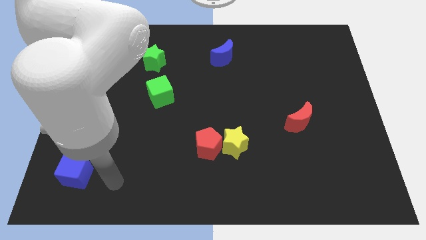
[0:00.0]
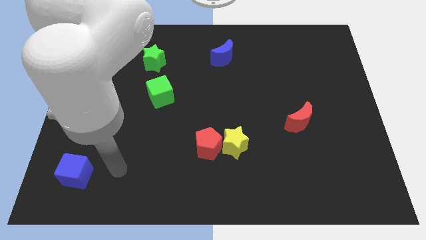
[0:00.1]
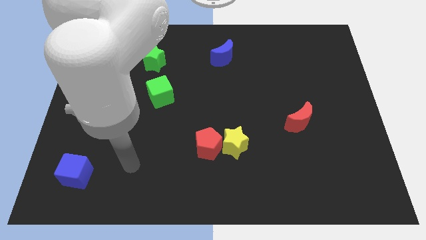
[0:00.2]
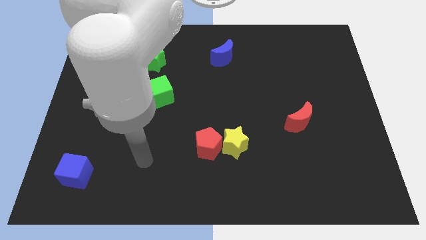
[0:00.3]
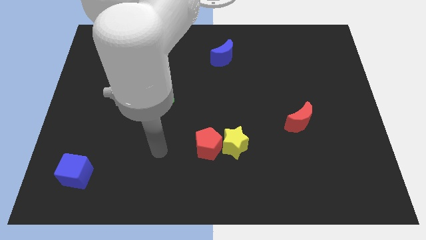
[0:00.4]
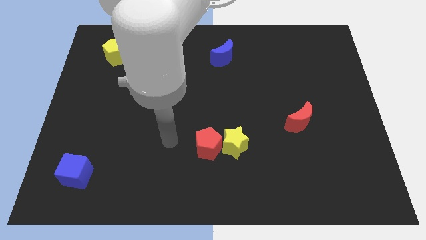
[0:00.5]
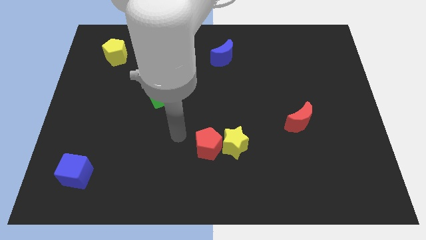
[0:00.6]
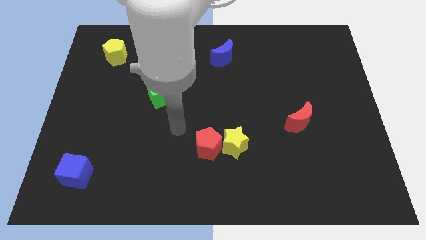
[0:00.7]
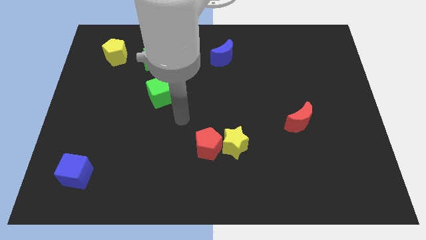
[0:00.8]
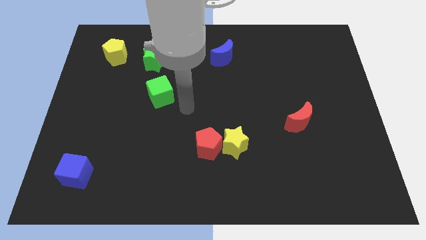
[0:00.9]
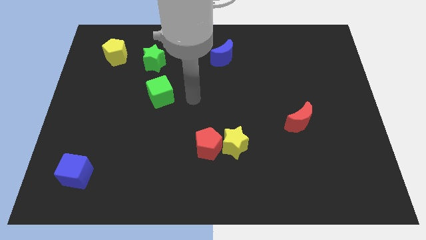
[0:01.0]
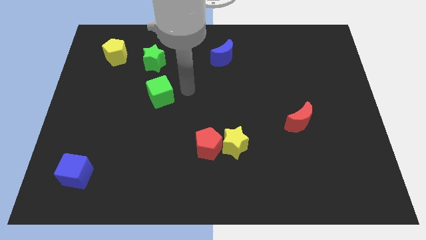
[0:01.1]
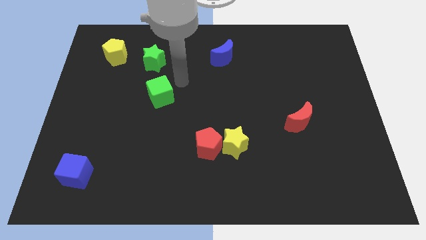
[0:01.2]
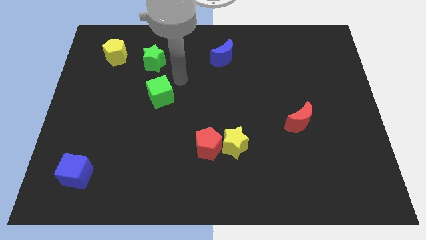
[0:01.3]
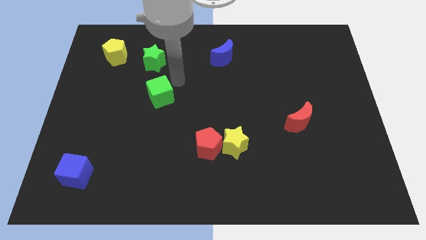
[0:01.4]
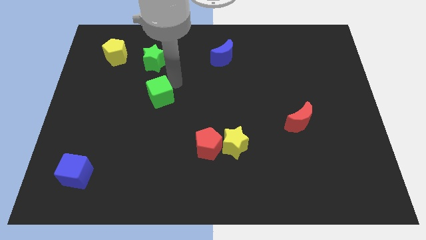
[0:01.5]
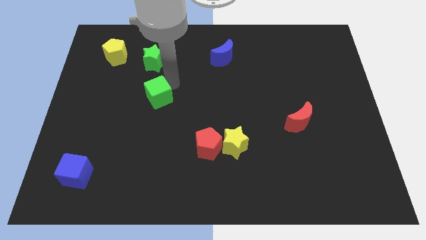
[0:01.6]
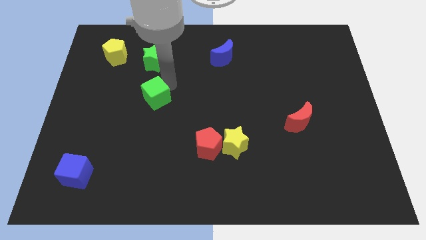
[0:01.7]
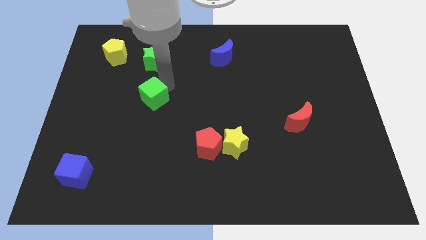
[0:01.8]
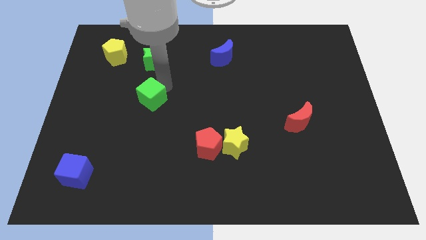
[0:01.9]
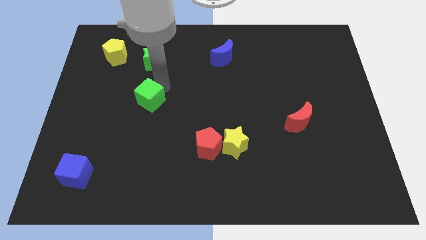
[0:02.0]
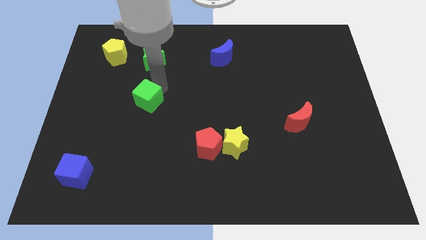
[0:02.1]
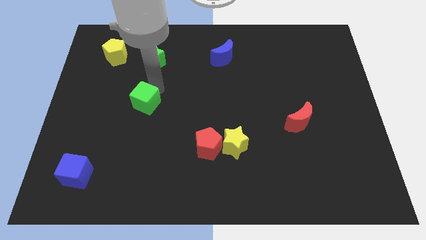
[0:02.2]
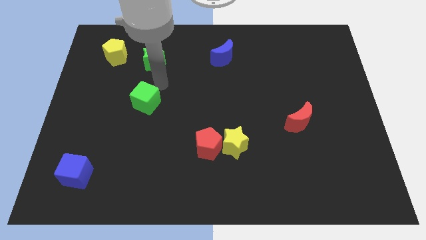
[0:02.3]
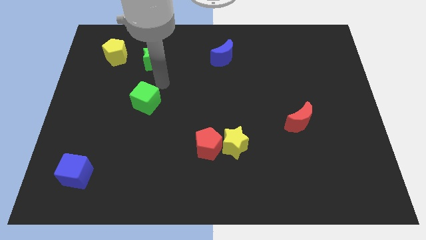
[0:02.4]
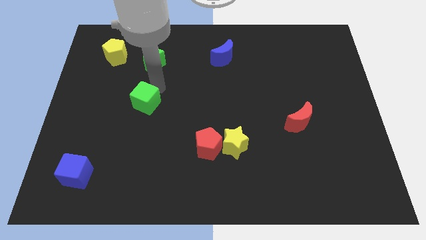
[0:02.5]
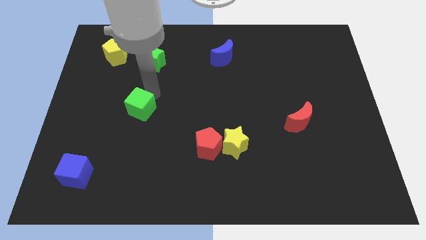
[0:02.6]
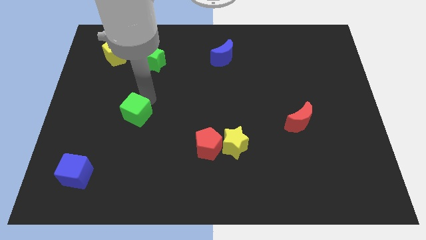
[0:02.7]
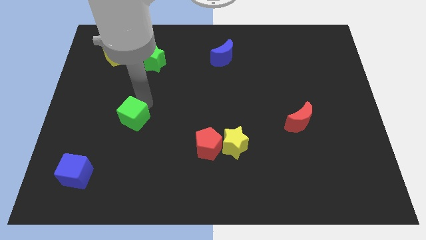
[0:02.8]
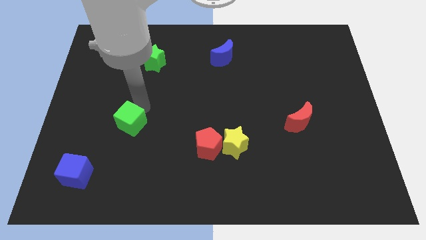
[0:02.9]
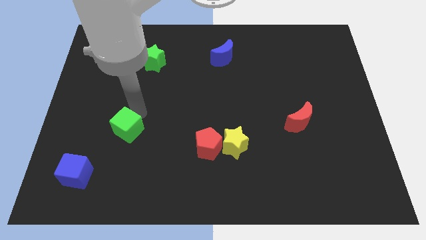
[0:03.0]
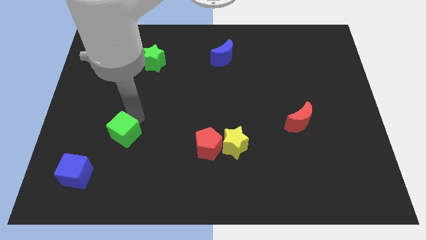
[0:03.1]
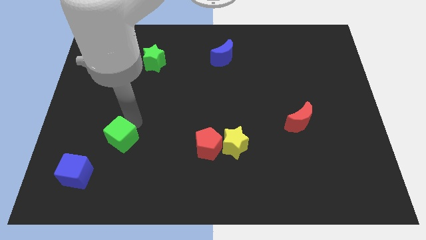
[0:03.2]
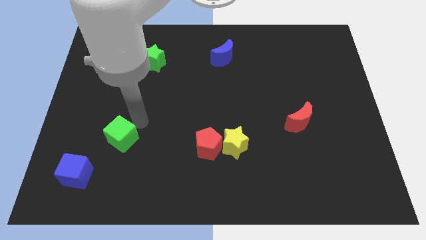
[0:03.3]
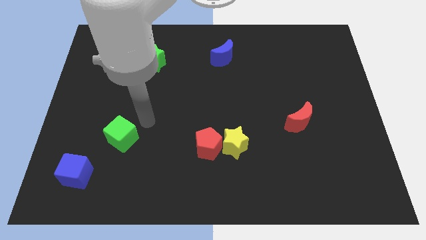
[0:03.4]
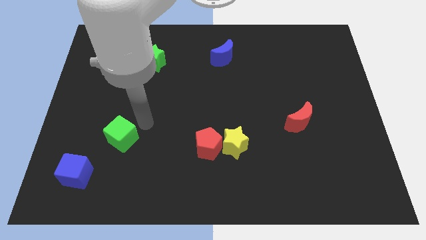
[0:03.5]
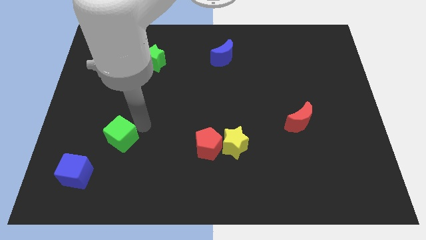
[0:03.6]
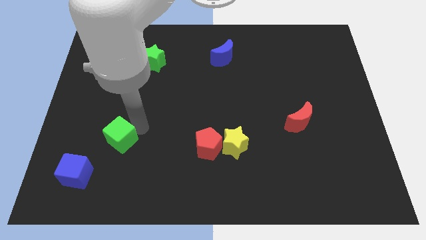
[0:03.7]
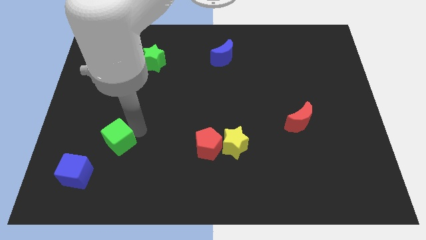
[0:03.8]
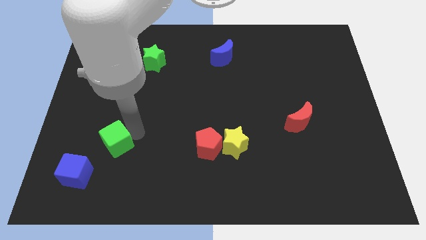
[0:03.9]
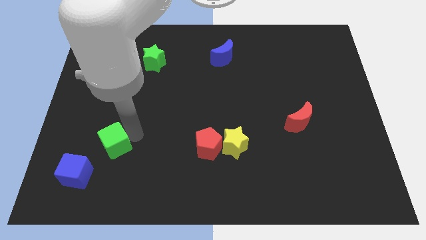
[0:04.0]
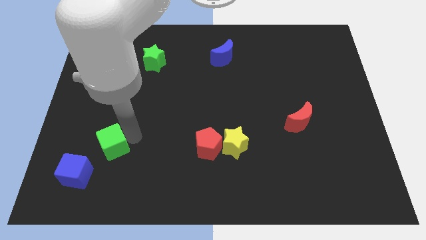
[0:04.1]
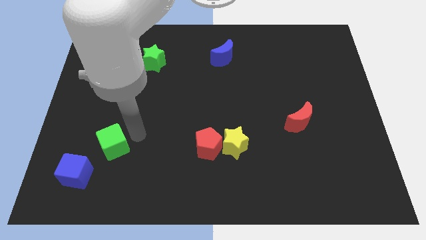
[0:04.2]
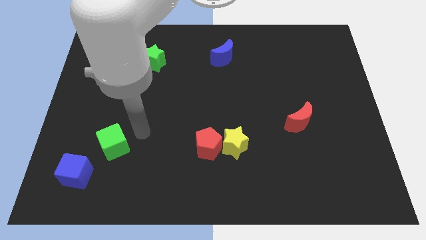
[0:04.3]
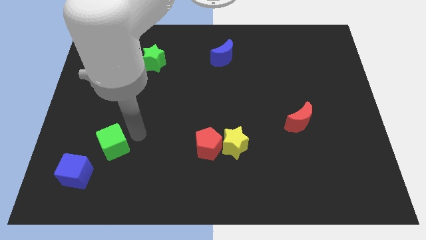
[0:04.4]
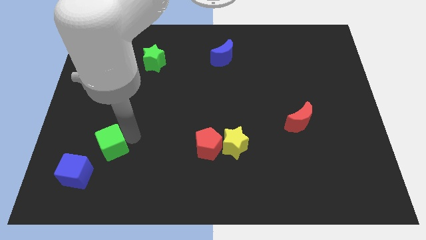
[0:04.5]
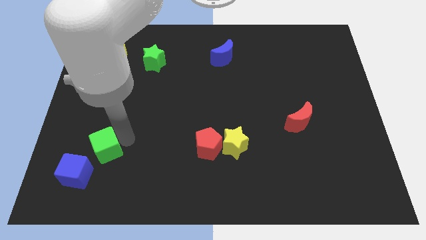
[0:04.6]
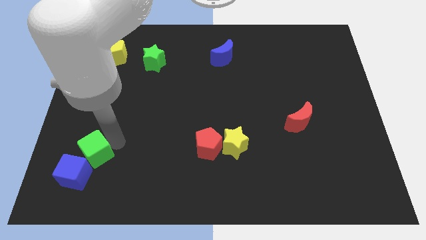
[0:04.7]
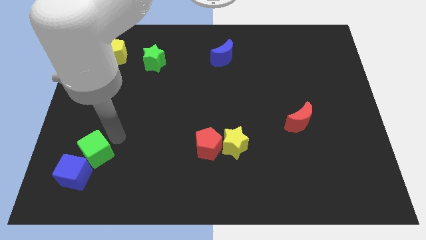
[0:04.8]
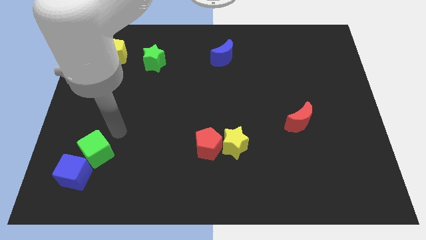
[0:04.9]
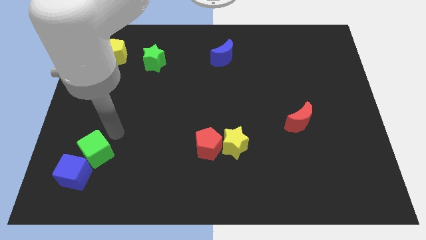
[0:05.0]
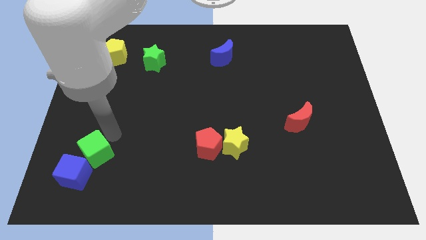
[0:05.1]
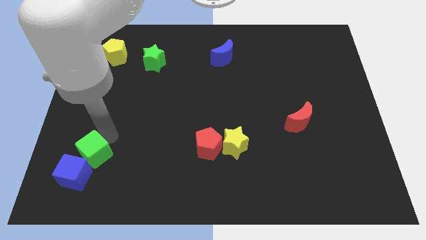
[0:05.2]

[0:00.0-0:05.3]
push the green cube next to the blue cube

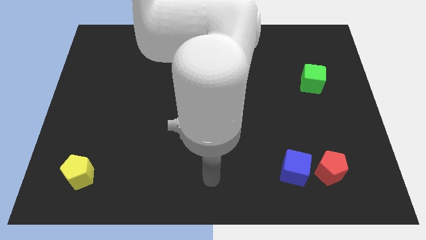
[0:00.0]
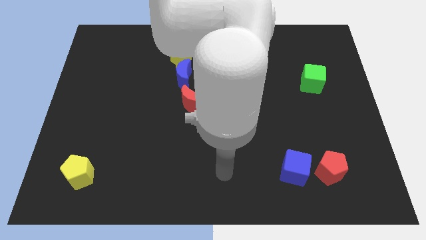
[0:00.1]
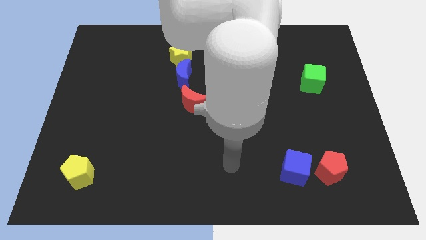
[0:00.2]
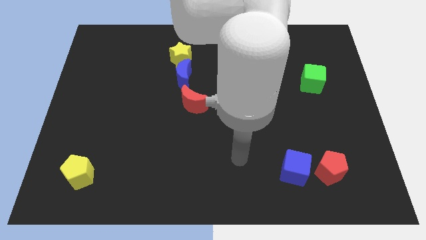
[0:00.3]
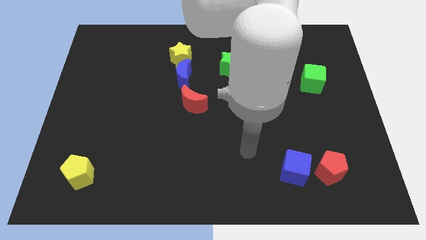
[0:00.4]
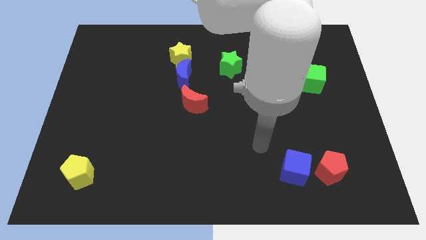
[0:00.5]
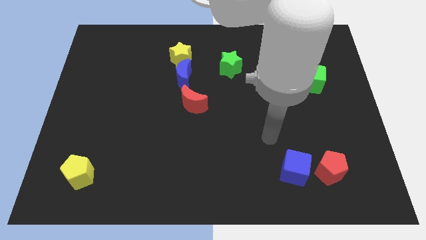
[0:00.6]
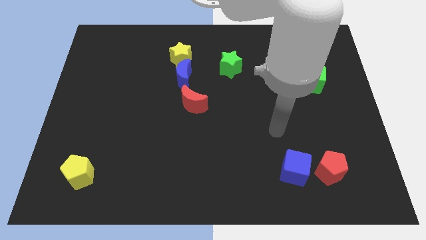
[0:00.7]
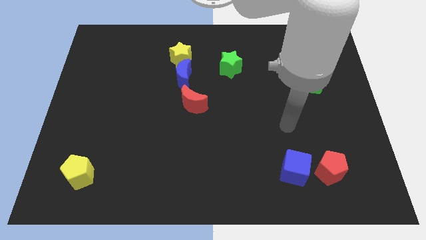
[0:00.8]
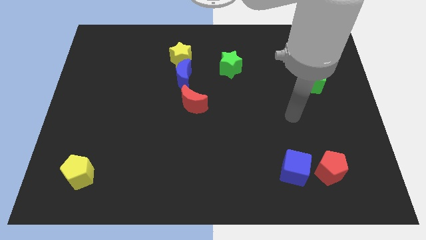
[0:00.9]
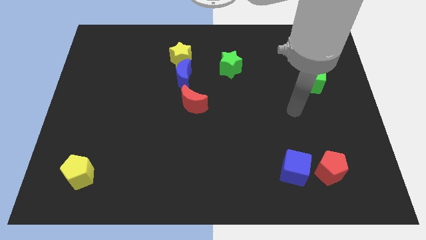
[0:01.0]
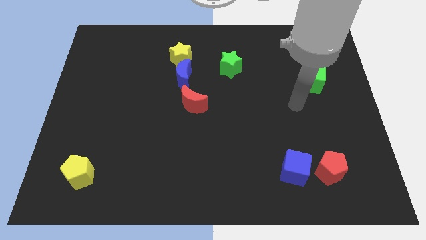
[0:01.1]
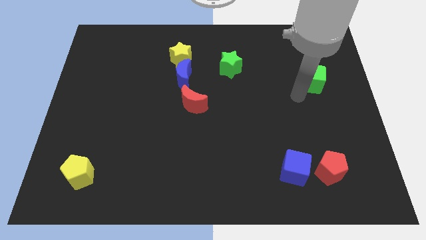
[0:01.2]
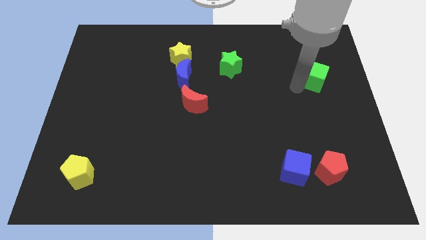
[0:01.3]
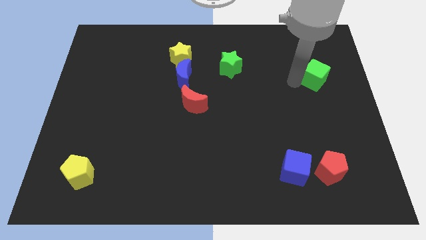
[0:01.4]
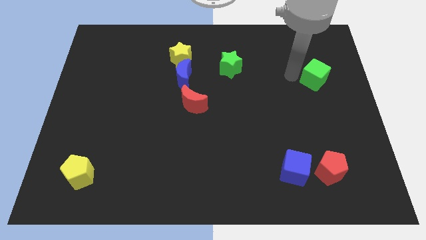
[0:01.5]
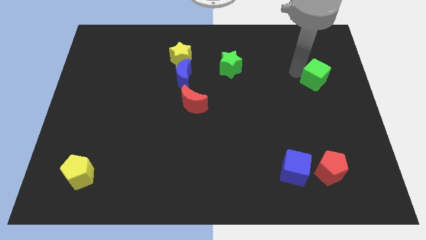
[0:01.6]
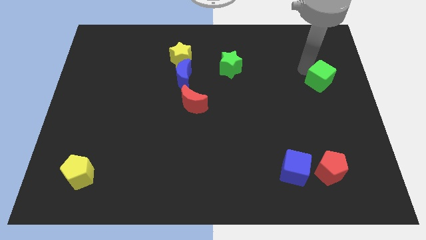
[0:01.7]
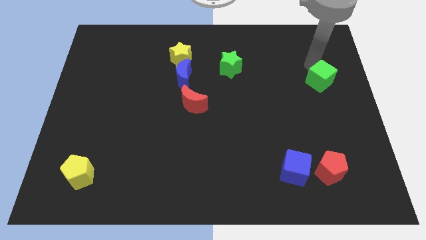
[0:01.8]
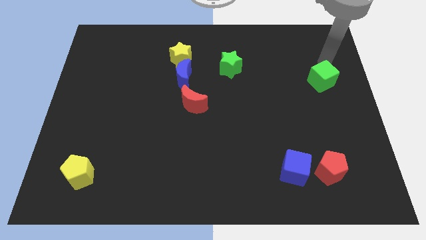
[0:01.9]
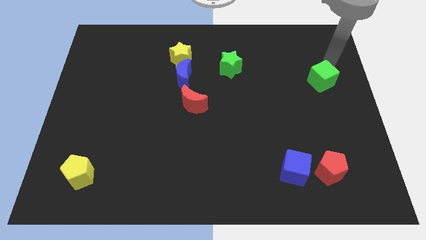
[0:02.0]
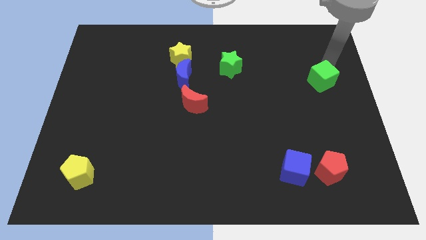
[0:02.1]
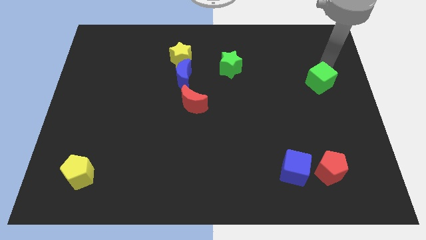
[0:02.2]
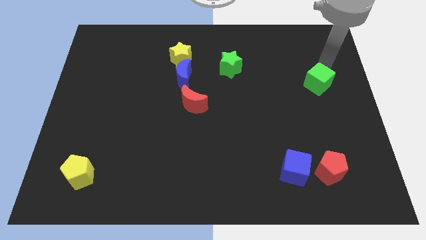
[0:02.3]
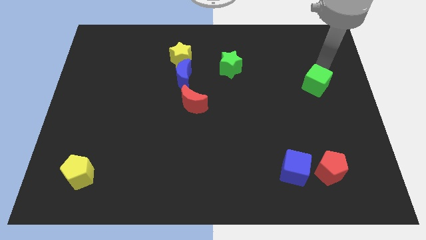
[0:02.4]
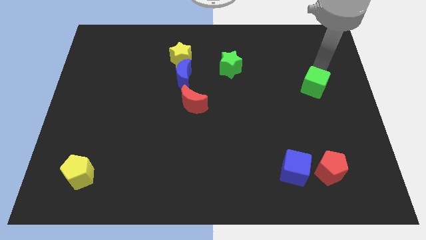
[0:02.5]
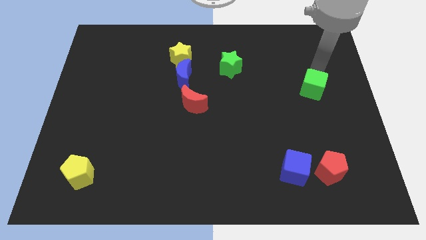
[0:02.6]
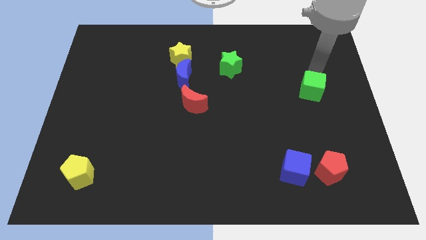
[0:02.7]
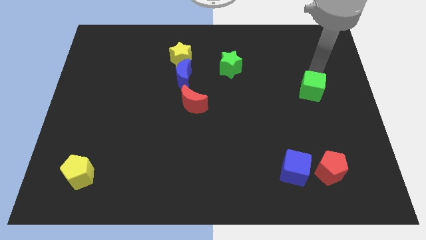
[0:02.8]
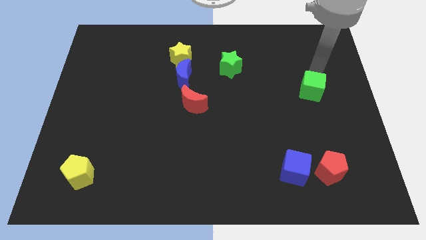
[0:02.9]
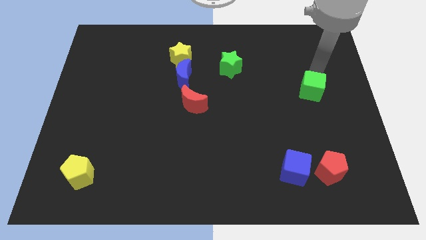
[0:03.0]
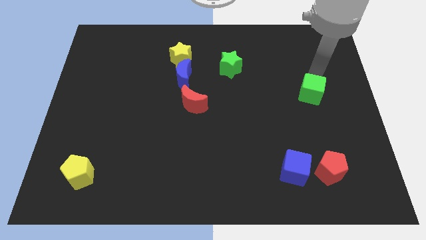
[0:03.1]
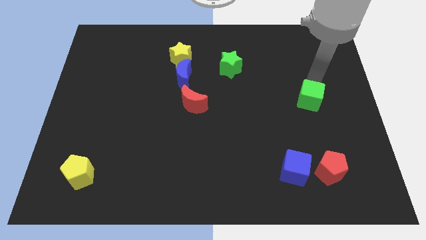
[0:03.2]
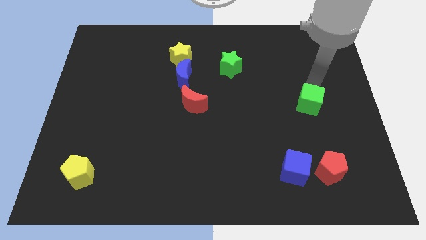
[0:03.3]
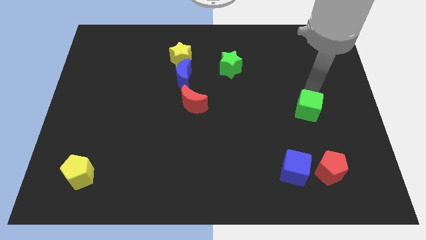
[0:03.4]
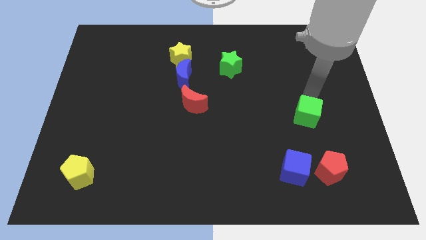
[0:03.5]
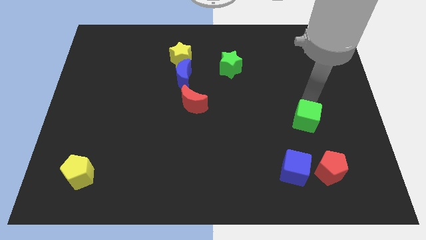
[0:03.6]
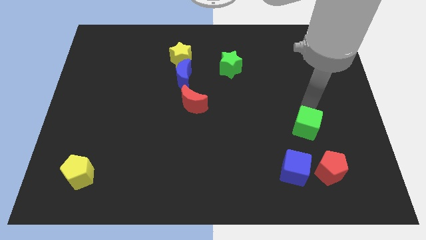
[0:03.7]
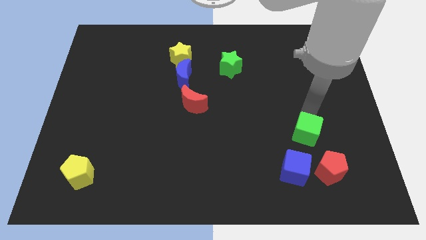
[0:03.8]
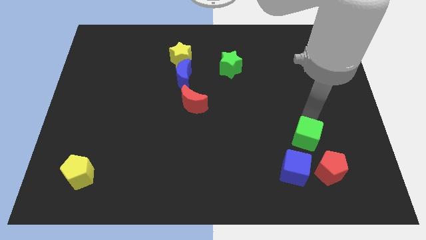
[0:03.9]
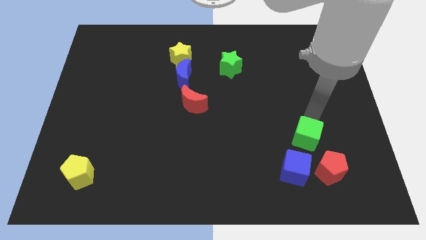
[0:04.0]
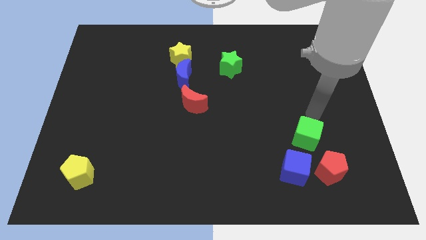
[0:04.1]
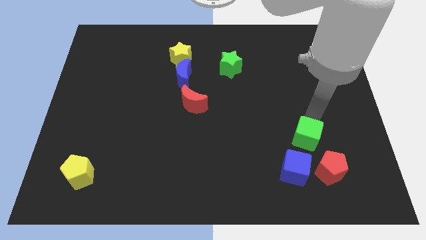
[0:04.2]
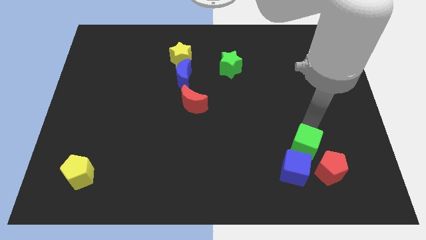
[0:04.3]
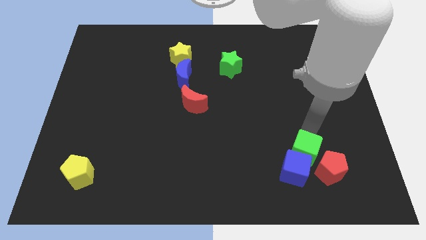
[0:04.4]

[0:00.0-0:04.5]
move the green cube to the blue cube
